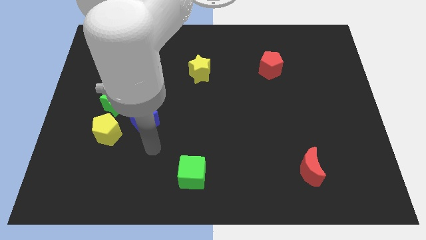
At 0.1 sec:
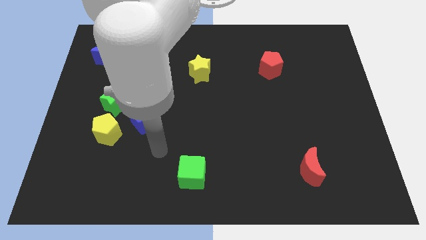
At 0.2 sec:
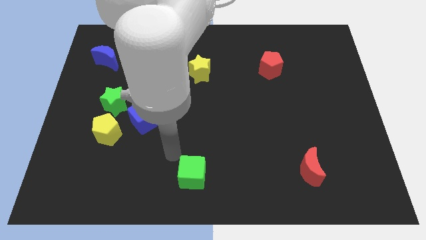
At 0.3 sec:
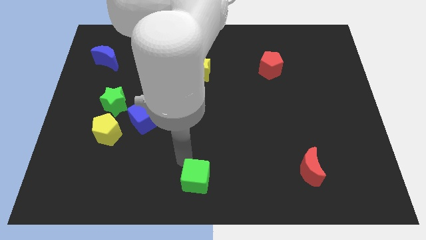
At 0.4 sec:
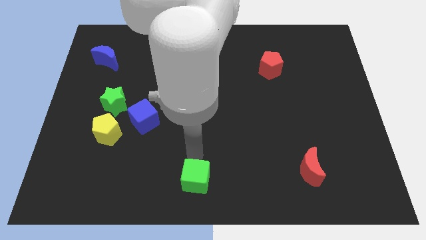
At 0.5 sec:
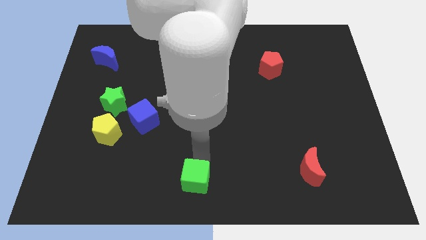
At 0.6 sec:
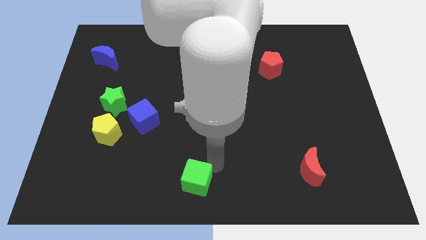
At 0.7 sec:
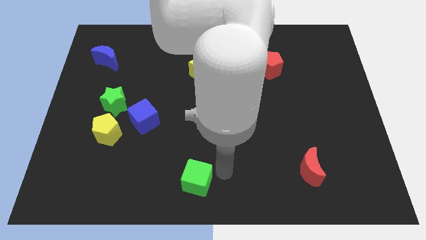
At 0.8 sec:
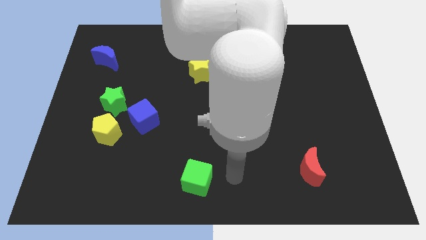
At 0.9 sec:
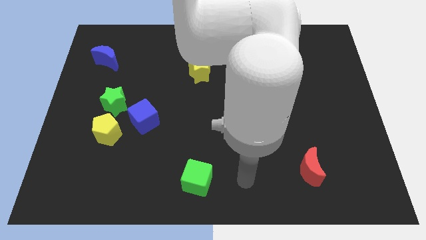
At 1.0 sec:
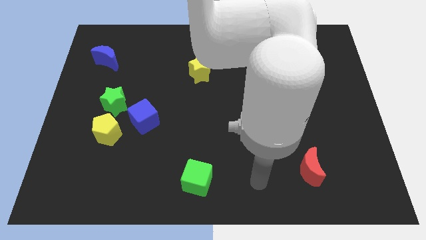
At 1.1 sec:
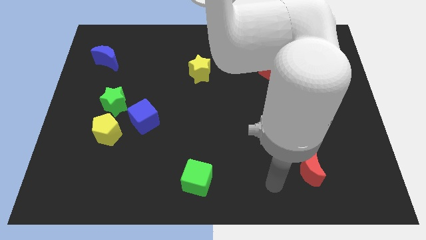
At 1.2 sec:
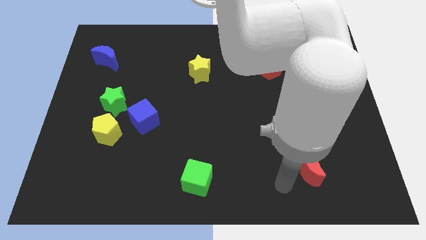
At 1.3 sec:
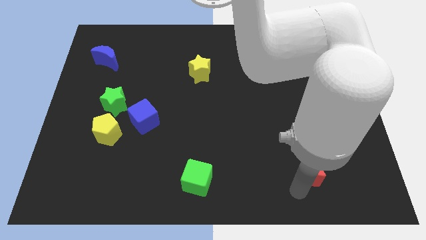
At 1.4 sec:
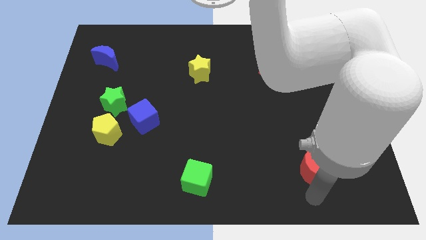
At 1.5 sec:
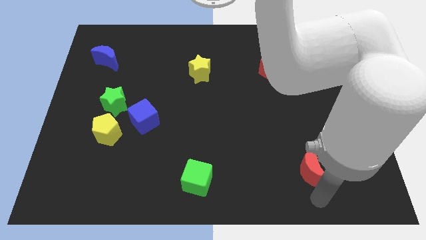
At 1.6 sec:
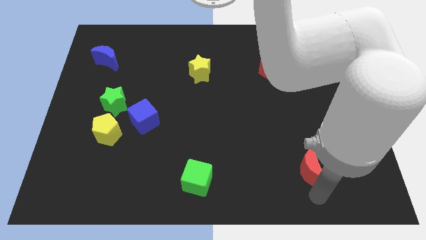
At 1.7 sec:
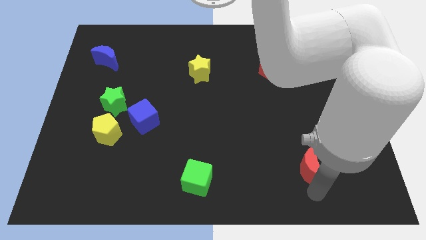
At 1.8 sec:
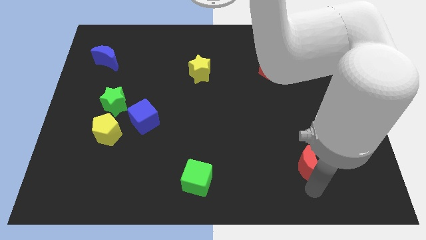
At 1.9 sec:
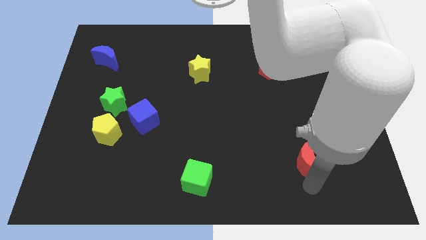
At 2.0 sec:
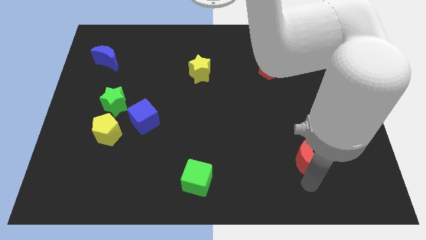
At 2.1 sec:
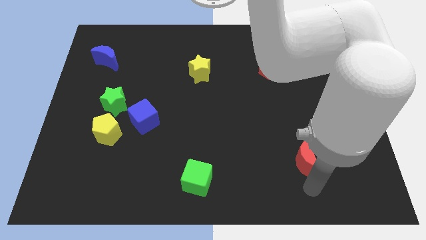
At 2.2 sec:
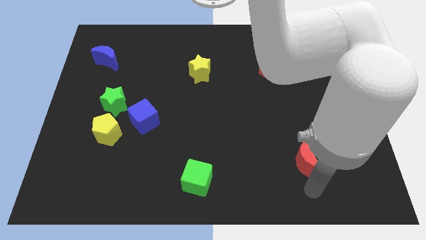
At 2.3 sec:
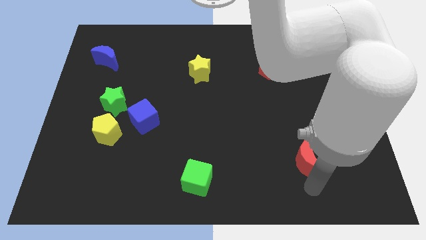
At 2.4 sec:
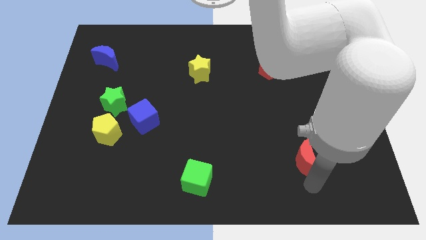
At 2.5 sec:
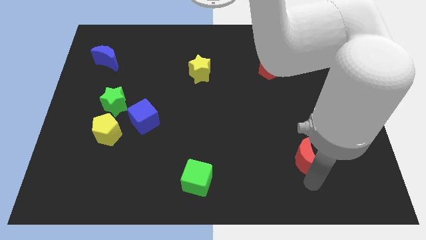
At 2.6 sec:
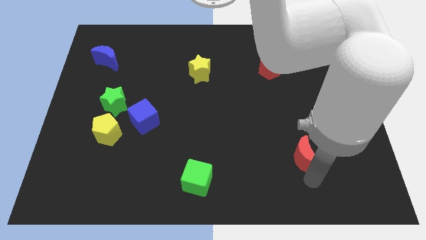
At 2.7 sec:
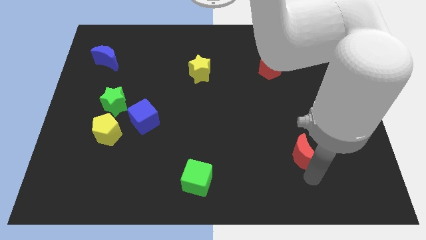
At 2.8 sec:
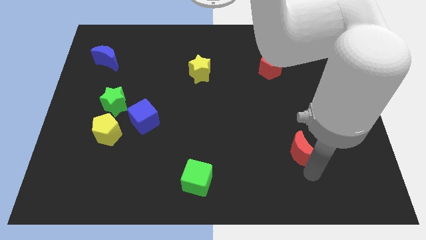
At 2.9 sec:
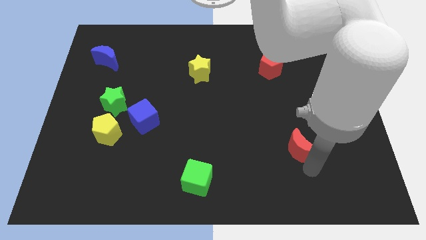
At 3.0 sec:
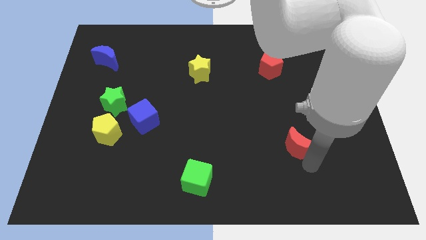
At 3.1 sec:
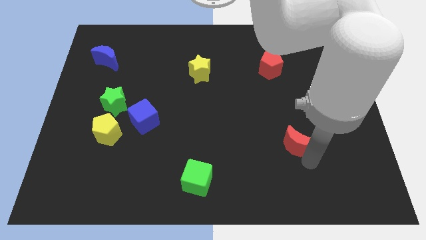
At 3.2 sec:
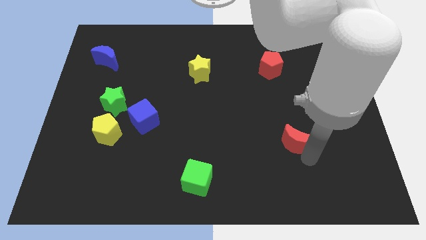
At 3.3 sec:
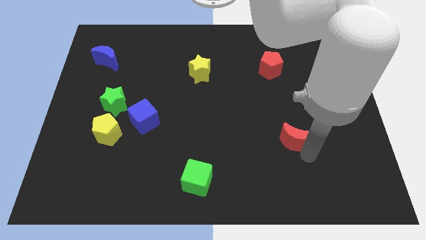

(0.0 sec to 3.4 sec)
push the red moon up slightly

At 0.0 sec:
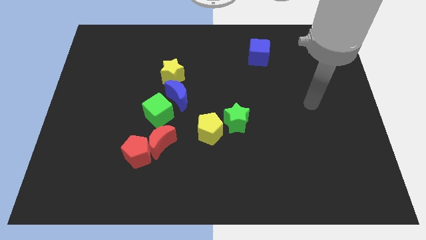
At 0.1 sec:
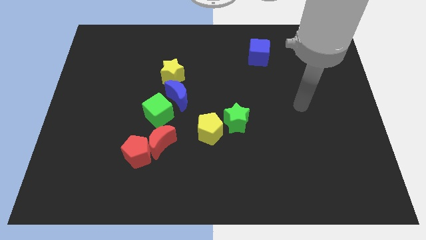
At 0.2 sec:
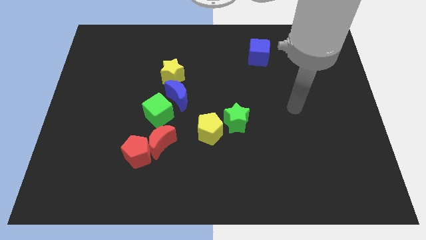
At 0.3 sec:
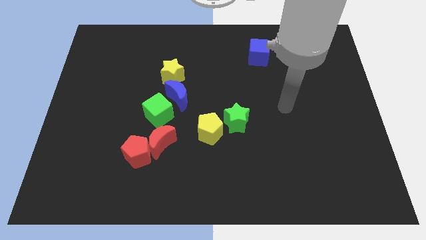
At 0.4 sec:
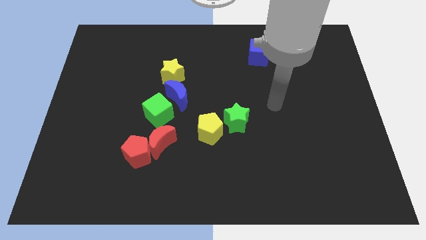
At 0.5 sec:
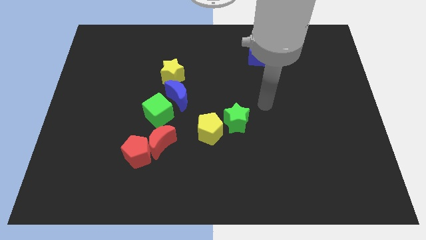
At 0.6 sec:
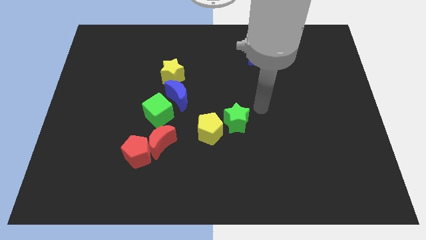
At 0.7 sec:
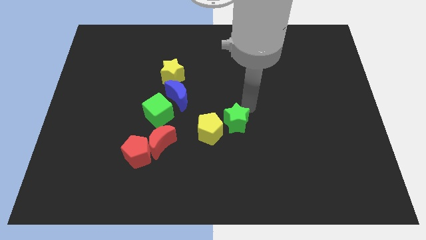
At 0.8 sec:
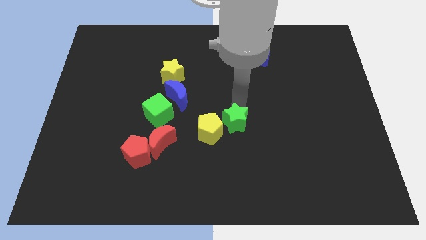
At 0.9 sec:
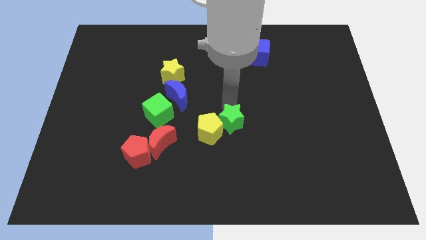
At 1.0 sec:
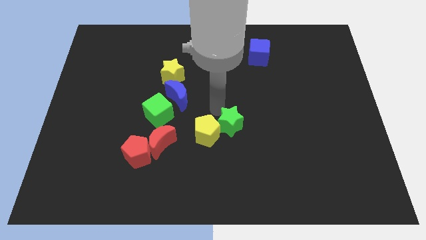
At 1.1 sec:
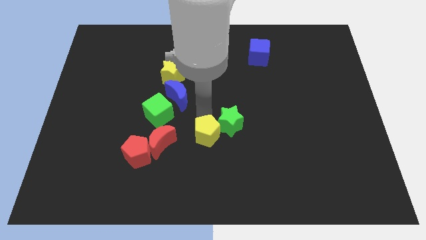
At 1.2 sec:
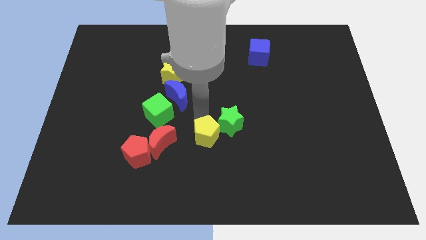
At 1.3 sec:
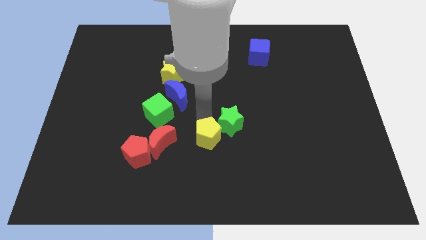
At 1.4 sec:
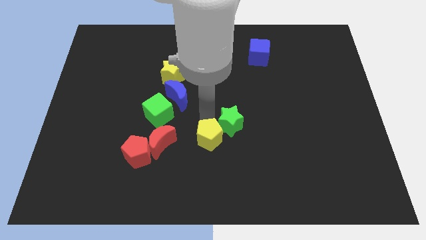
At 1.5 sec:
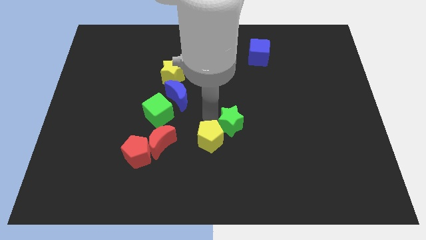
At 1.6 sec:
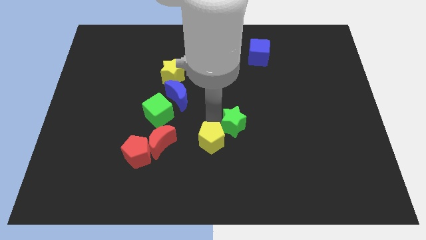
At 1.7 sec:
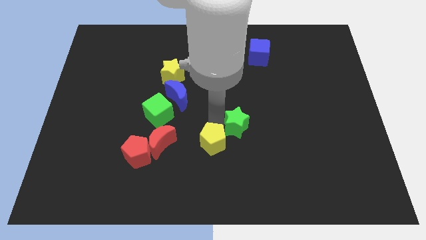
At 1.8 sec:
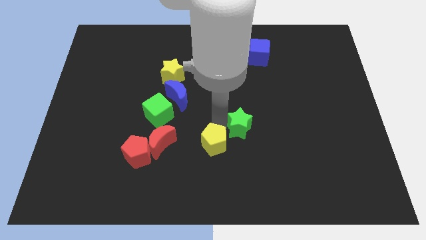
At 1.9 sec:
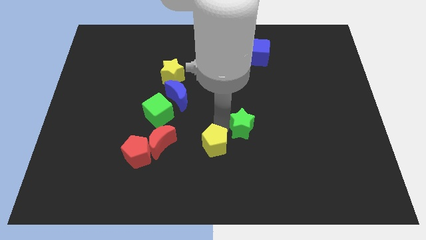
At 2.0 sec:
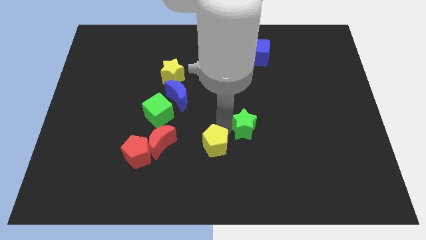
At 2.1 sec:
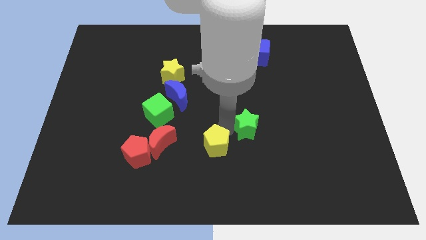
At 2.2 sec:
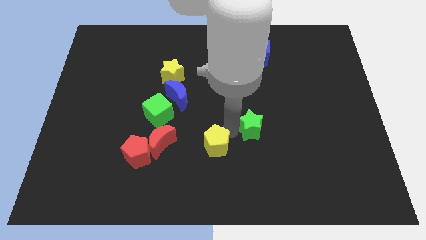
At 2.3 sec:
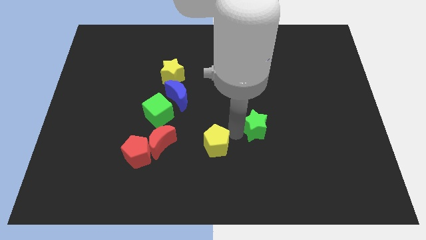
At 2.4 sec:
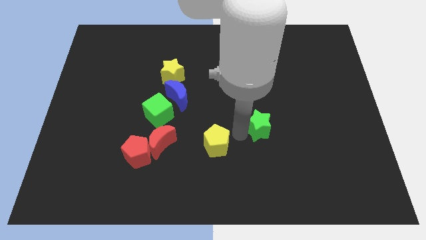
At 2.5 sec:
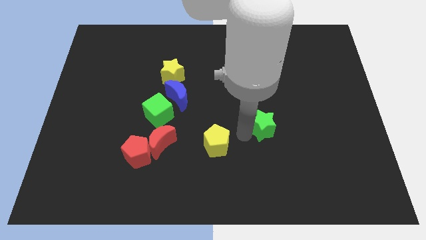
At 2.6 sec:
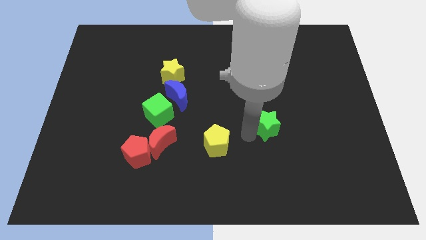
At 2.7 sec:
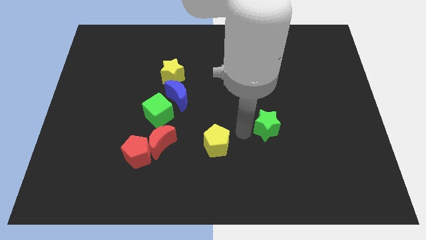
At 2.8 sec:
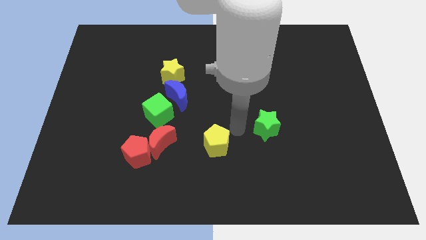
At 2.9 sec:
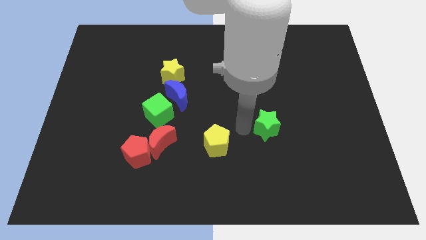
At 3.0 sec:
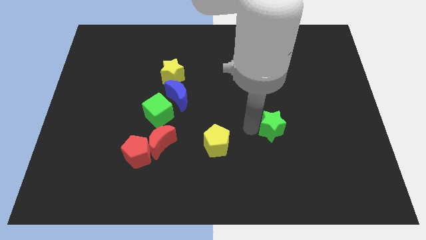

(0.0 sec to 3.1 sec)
slightly move the green star to the right

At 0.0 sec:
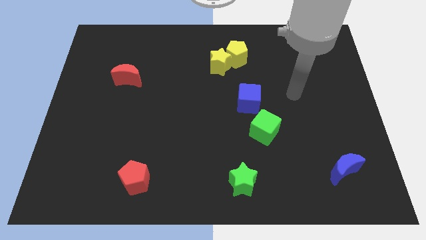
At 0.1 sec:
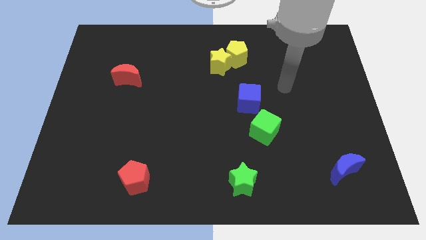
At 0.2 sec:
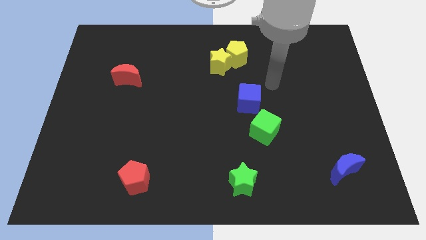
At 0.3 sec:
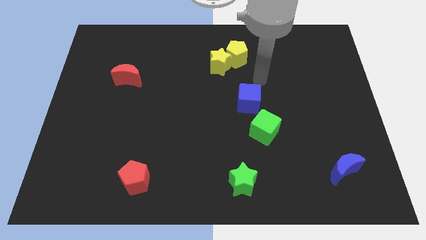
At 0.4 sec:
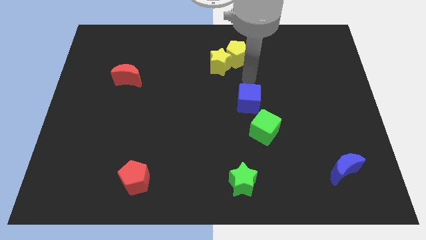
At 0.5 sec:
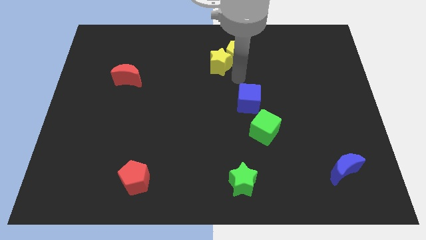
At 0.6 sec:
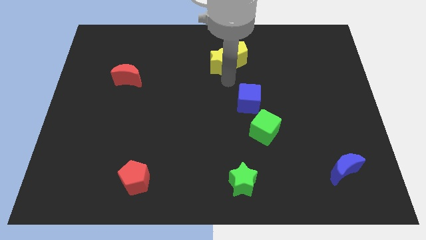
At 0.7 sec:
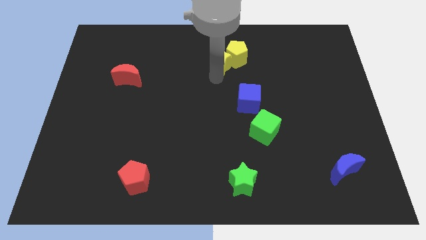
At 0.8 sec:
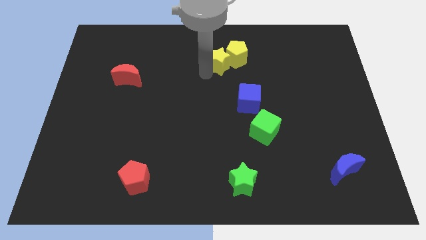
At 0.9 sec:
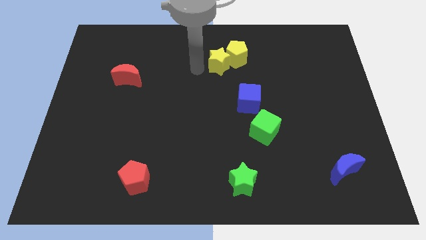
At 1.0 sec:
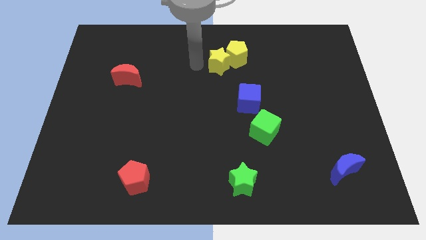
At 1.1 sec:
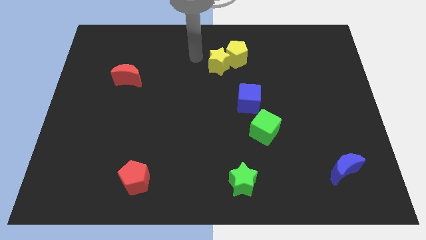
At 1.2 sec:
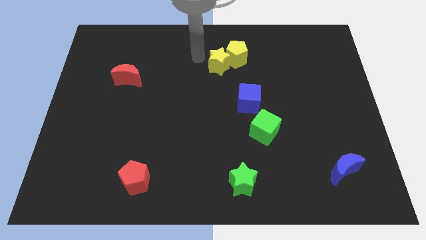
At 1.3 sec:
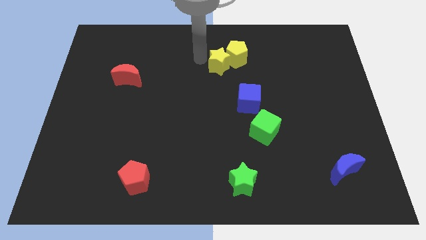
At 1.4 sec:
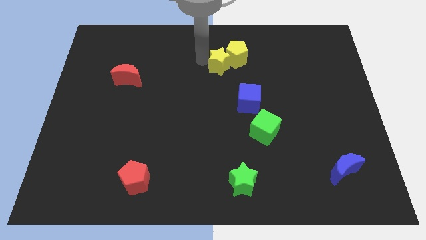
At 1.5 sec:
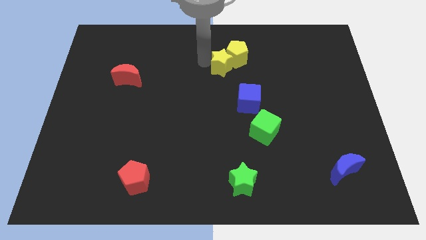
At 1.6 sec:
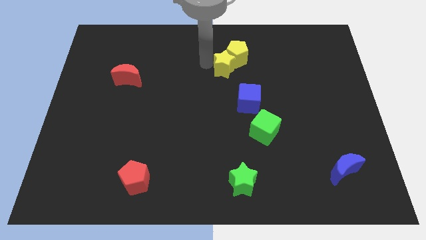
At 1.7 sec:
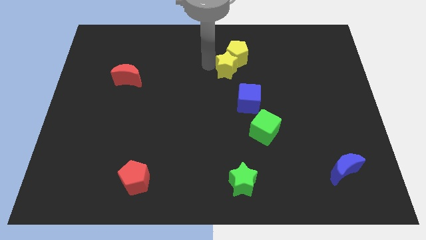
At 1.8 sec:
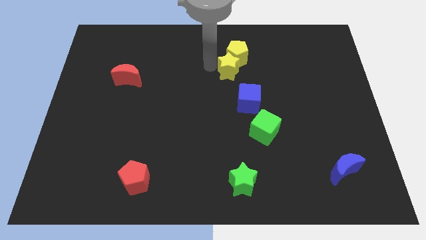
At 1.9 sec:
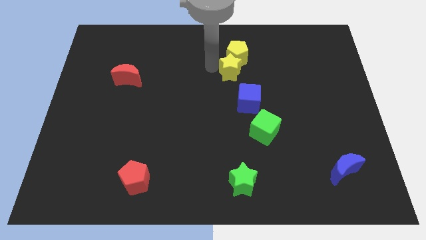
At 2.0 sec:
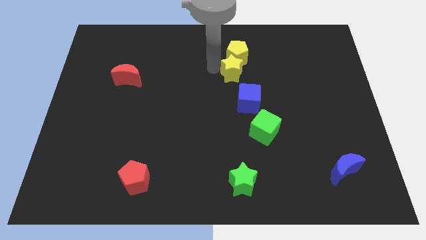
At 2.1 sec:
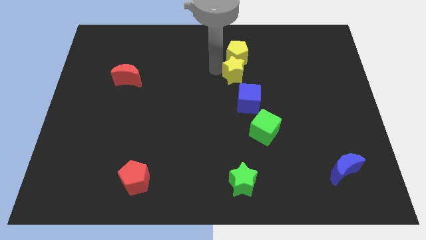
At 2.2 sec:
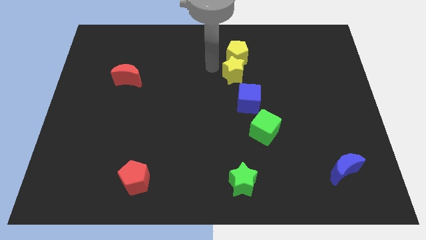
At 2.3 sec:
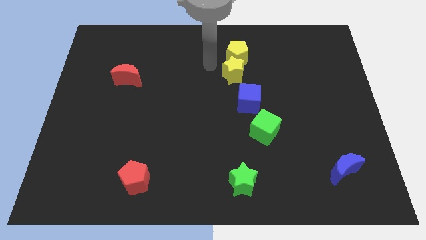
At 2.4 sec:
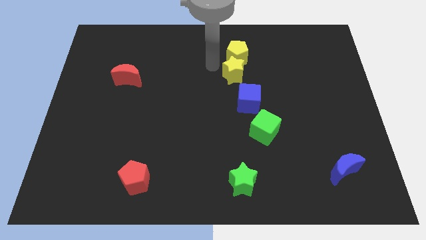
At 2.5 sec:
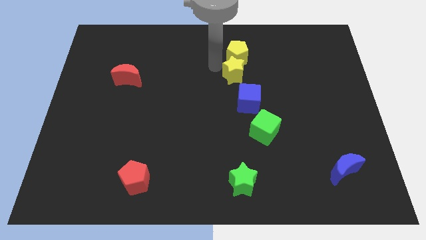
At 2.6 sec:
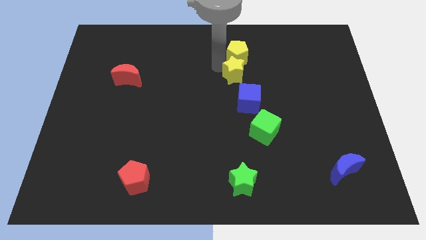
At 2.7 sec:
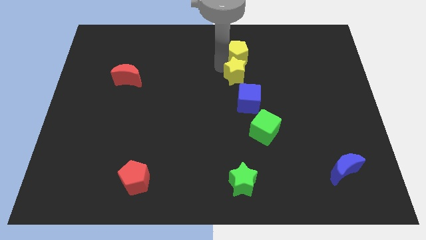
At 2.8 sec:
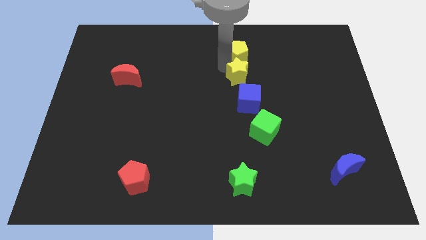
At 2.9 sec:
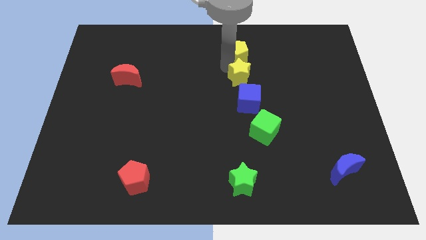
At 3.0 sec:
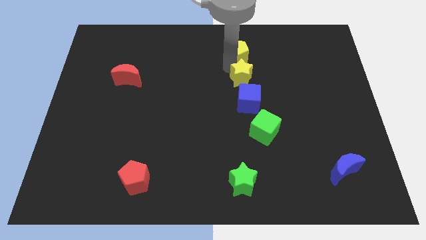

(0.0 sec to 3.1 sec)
slightly push the yellow star diagonally down and right
